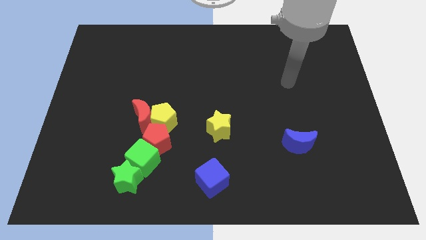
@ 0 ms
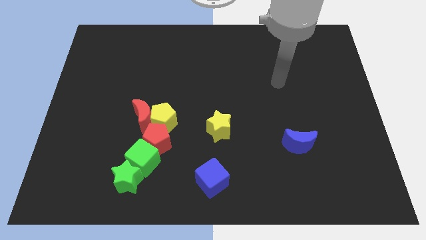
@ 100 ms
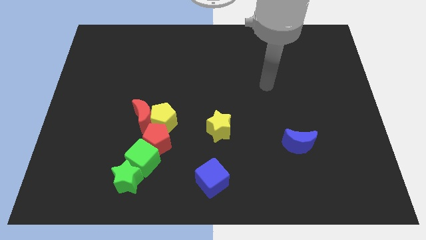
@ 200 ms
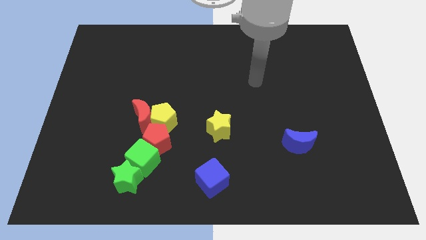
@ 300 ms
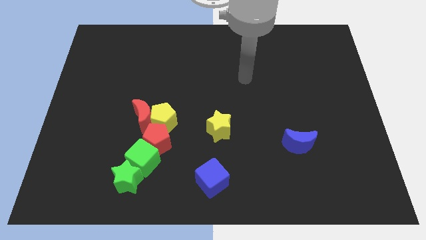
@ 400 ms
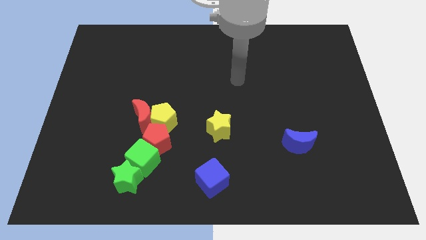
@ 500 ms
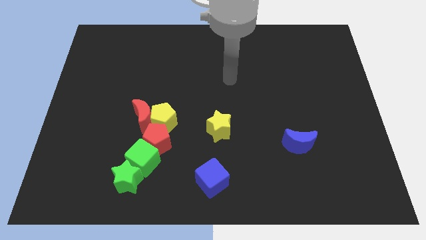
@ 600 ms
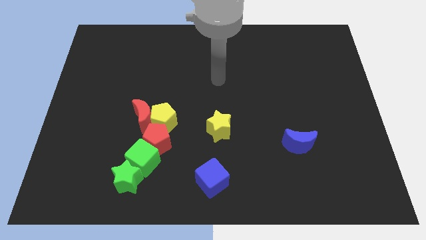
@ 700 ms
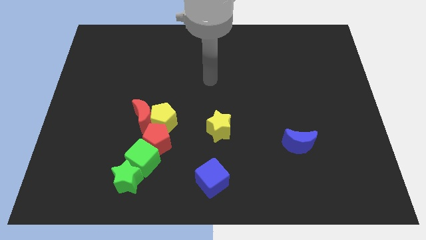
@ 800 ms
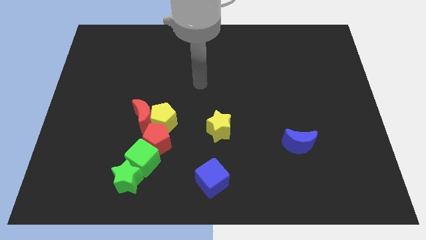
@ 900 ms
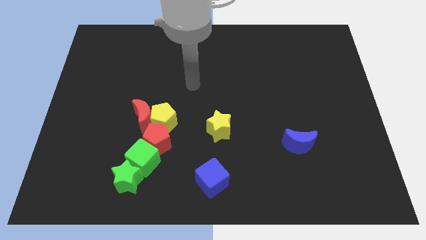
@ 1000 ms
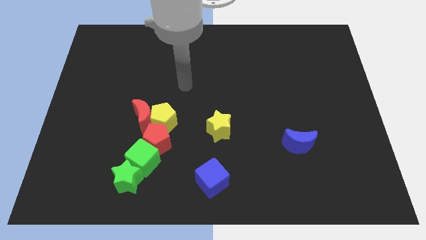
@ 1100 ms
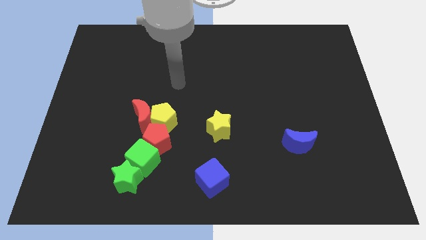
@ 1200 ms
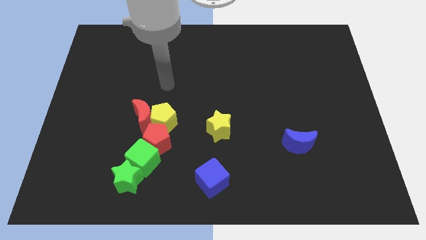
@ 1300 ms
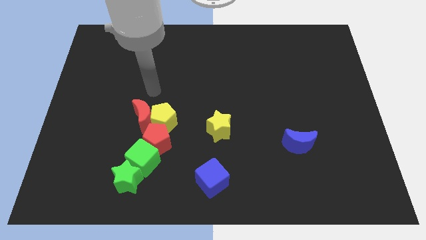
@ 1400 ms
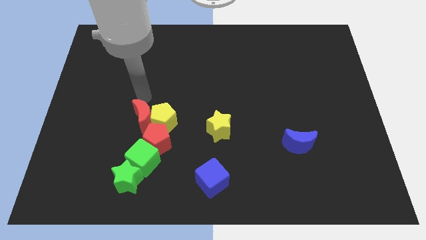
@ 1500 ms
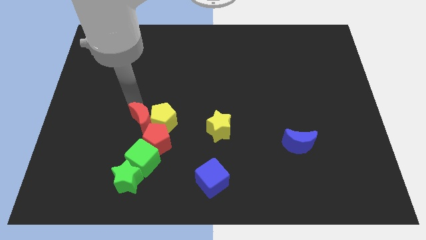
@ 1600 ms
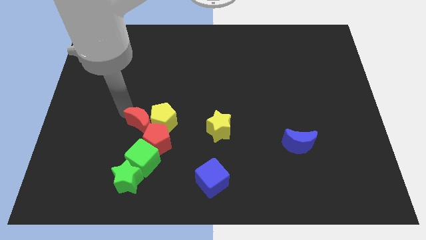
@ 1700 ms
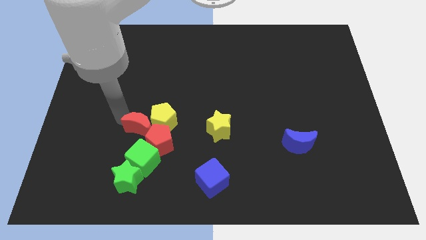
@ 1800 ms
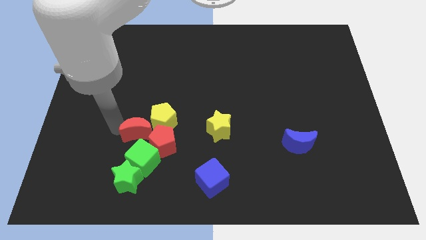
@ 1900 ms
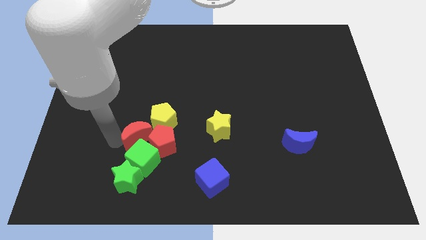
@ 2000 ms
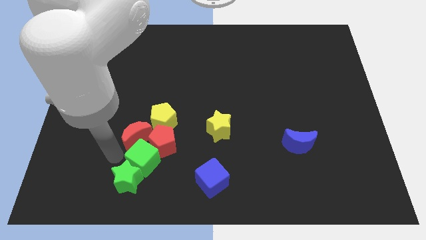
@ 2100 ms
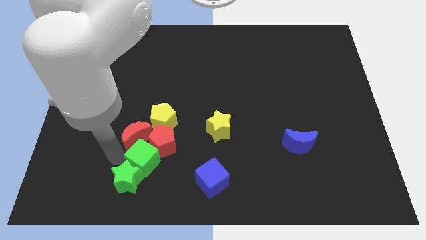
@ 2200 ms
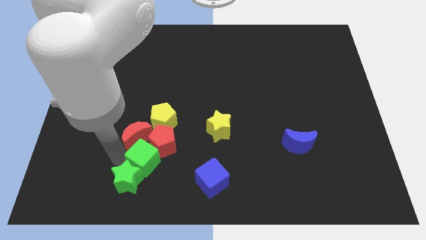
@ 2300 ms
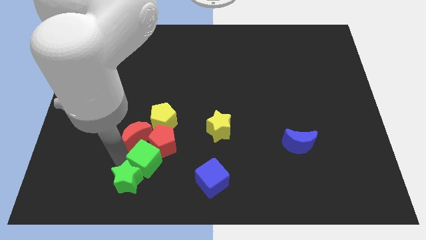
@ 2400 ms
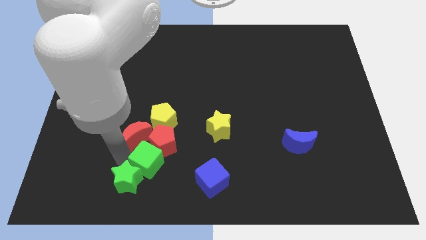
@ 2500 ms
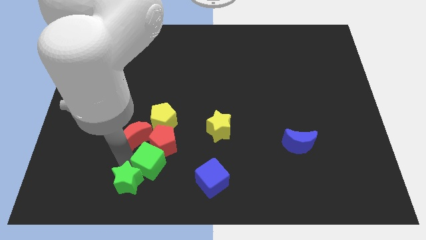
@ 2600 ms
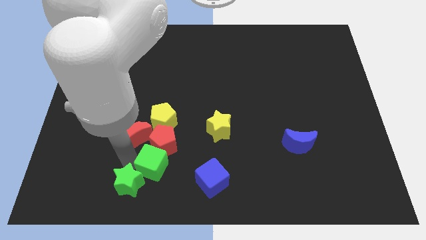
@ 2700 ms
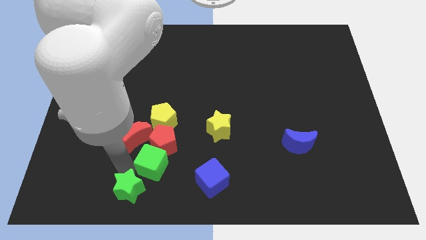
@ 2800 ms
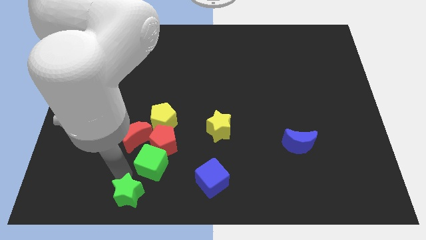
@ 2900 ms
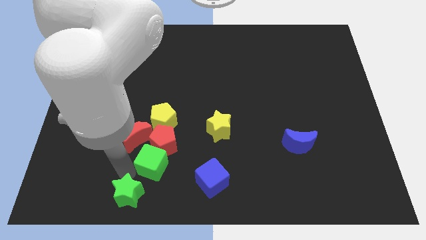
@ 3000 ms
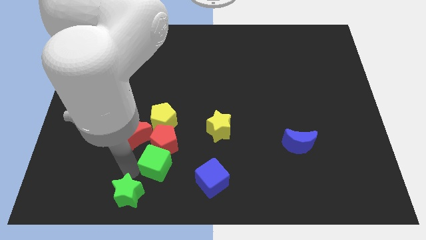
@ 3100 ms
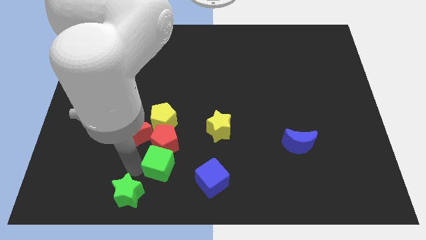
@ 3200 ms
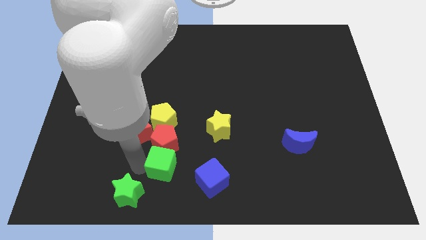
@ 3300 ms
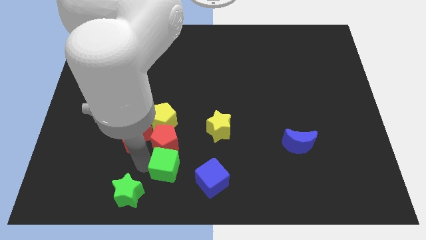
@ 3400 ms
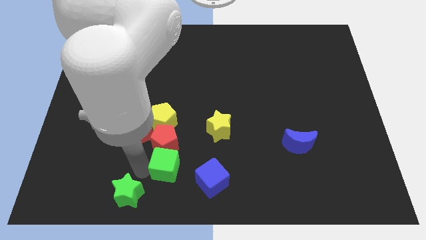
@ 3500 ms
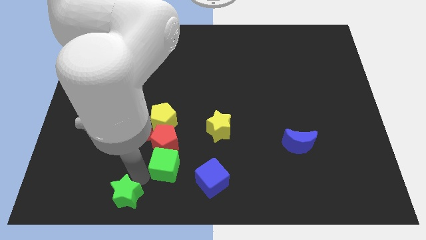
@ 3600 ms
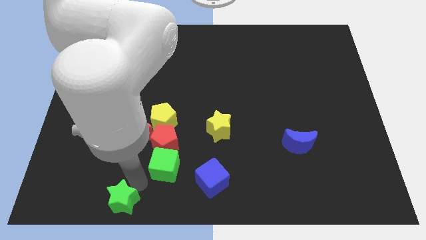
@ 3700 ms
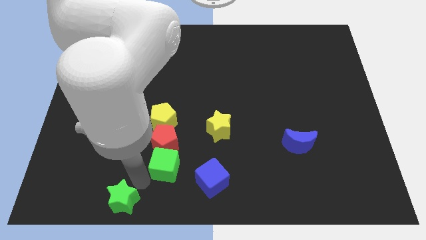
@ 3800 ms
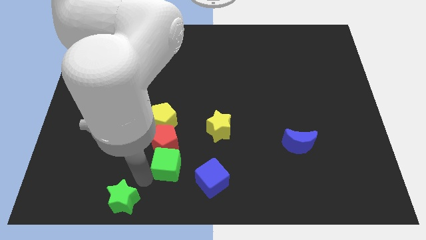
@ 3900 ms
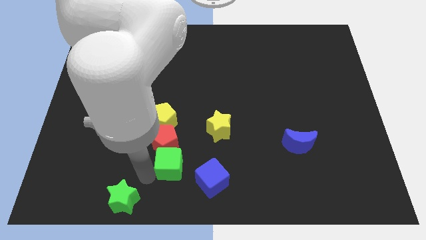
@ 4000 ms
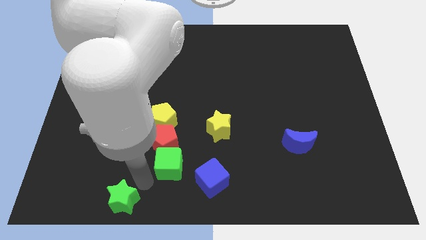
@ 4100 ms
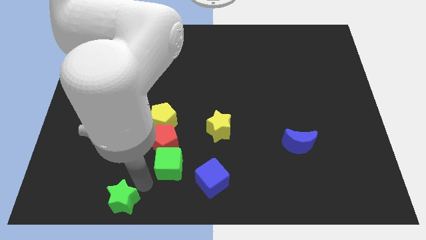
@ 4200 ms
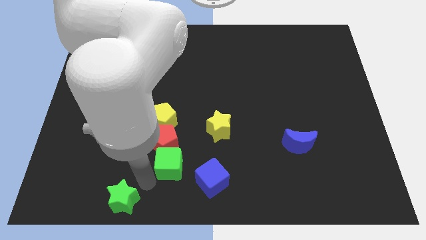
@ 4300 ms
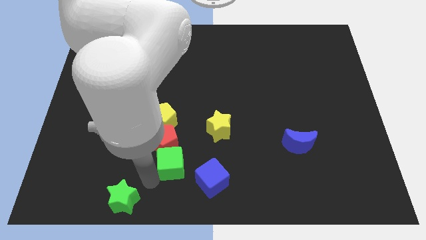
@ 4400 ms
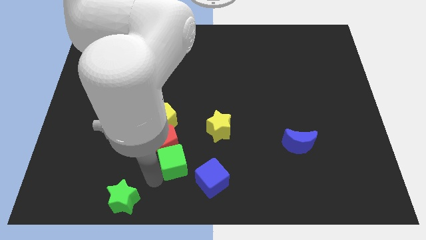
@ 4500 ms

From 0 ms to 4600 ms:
push the green cube diagonally down and to the left of the yellow star

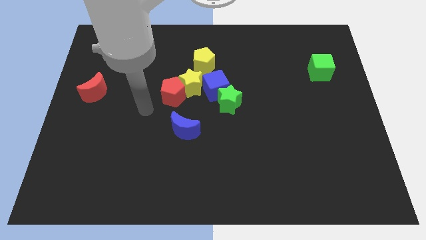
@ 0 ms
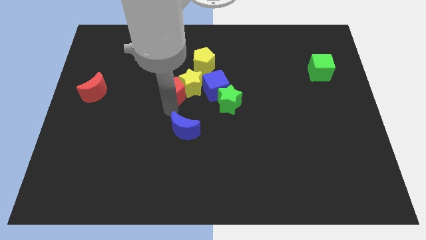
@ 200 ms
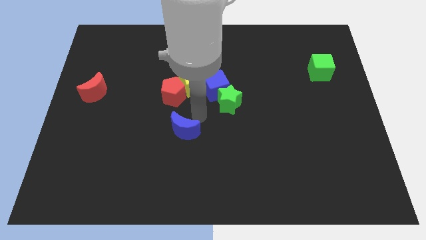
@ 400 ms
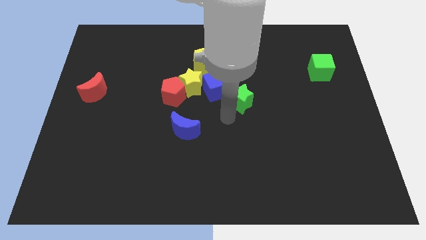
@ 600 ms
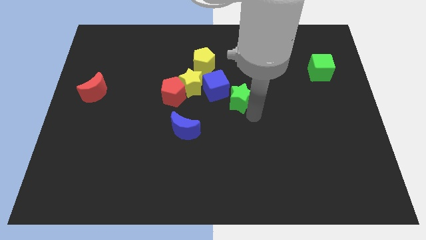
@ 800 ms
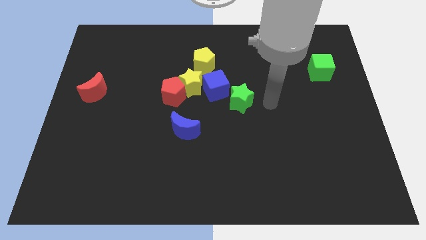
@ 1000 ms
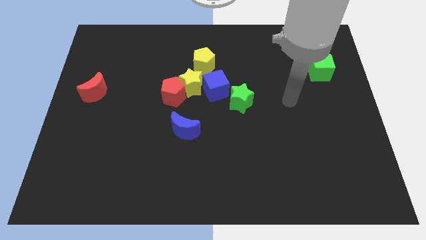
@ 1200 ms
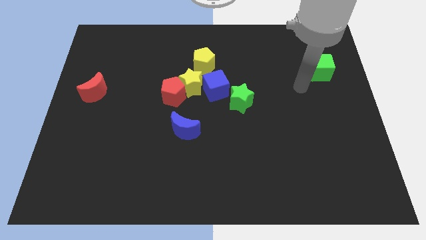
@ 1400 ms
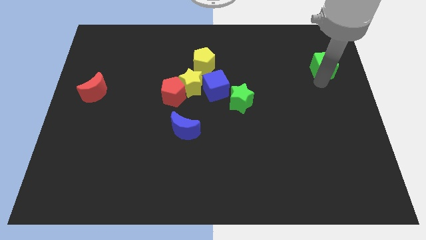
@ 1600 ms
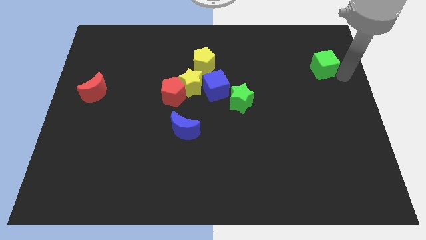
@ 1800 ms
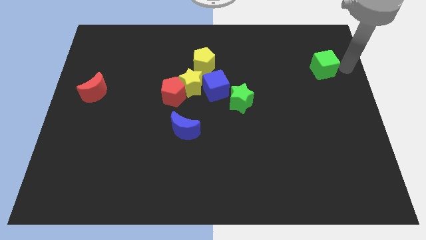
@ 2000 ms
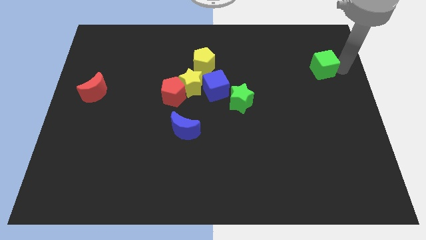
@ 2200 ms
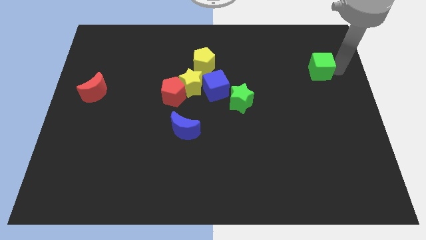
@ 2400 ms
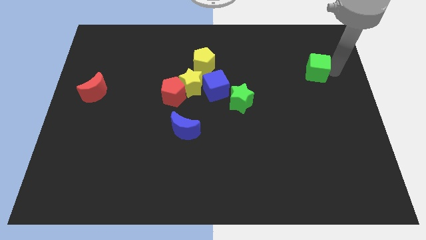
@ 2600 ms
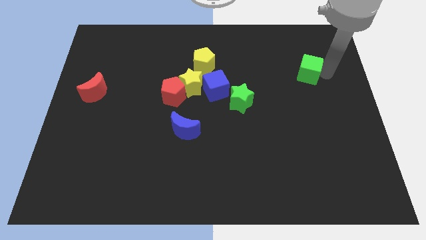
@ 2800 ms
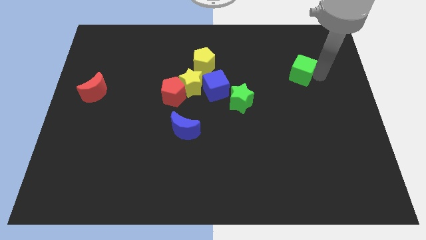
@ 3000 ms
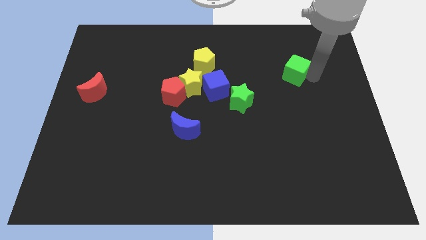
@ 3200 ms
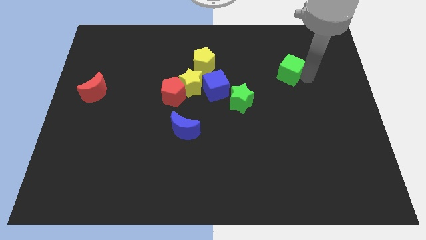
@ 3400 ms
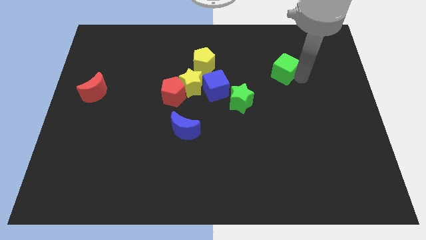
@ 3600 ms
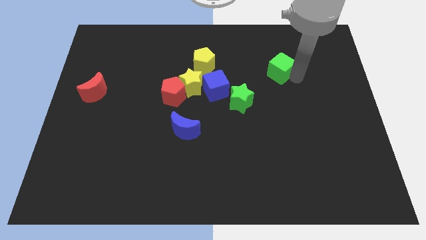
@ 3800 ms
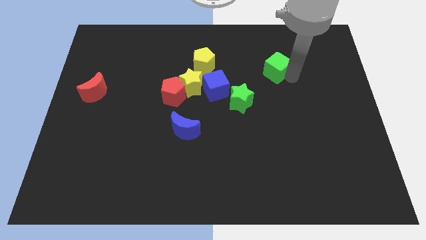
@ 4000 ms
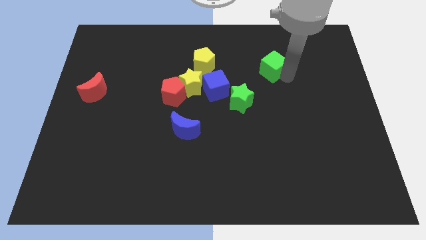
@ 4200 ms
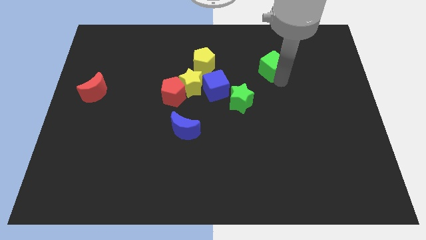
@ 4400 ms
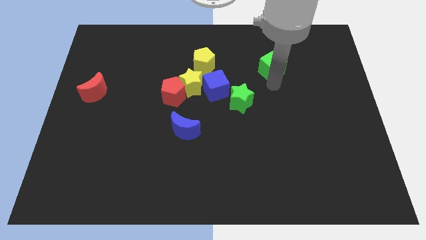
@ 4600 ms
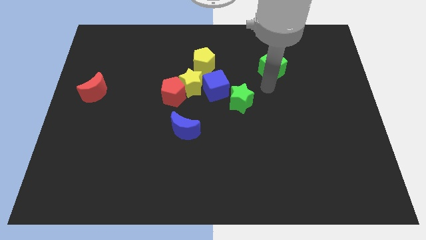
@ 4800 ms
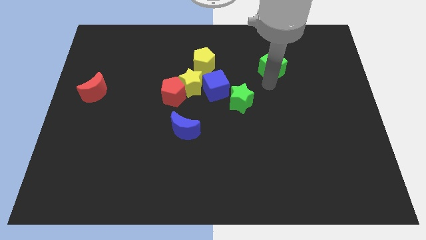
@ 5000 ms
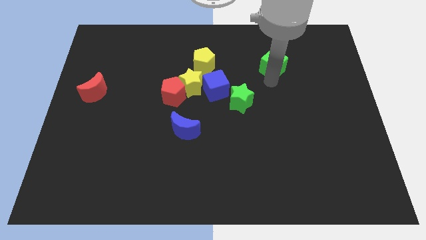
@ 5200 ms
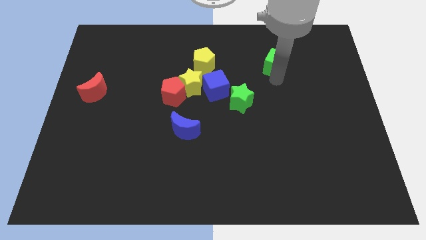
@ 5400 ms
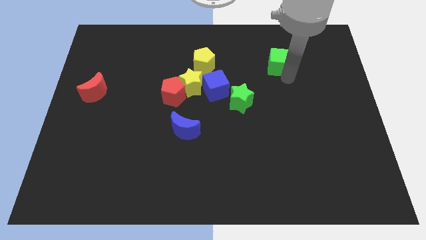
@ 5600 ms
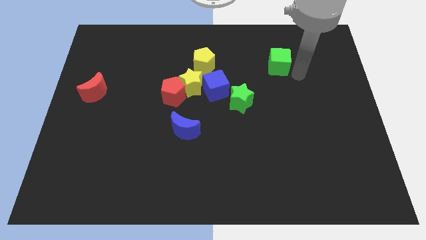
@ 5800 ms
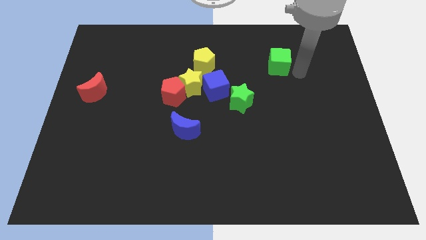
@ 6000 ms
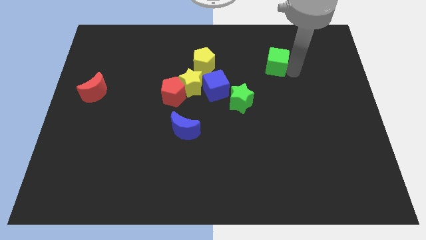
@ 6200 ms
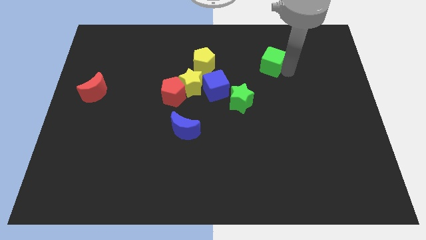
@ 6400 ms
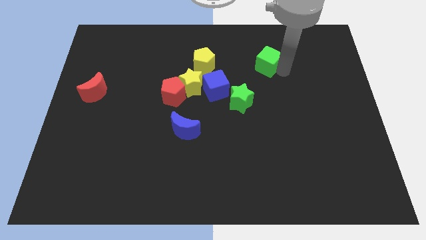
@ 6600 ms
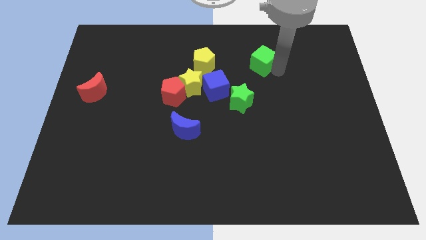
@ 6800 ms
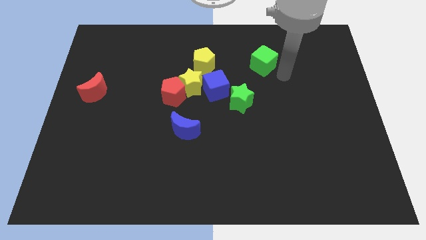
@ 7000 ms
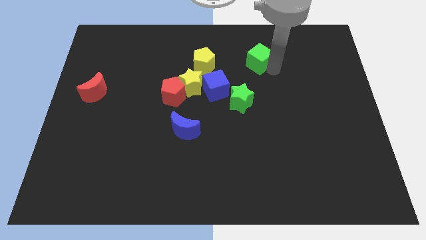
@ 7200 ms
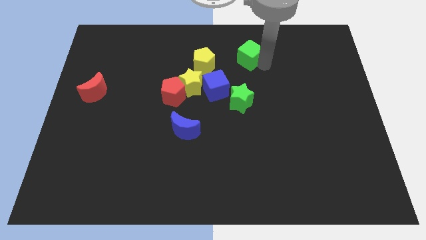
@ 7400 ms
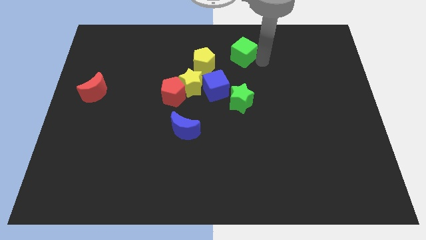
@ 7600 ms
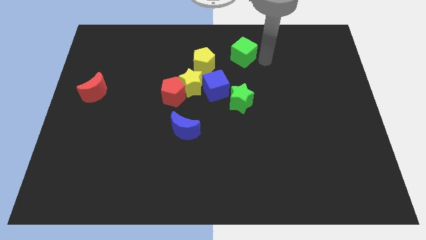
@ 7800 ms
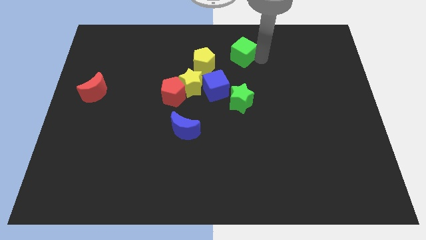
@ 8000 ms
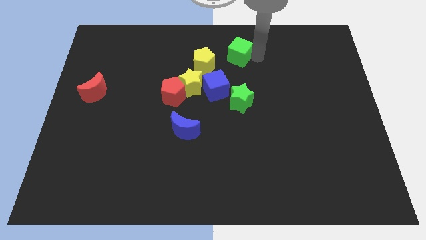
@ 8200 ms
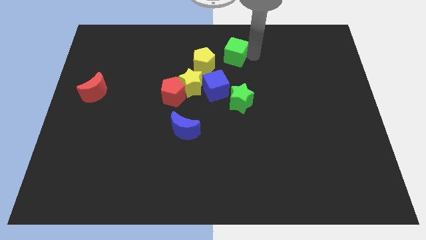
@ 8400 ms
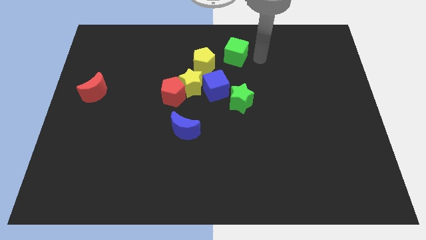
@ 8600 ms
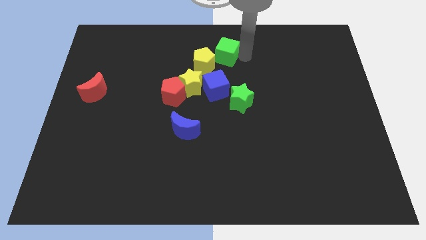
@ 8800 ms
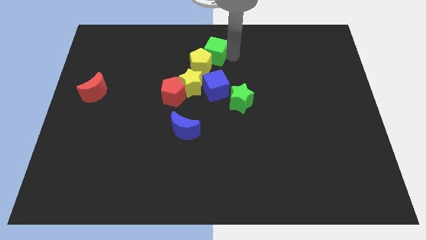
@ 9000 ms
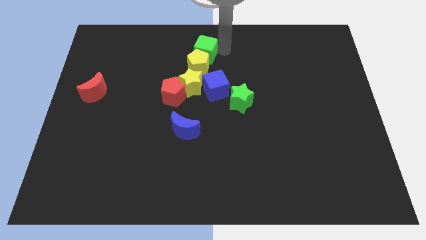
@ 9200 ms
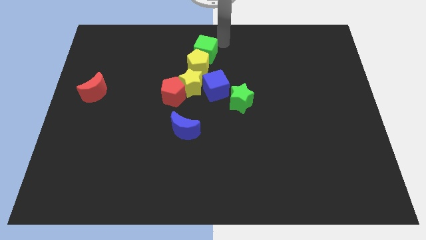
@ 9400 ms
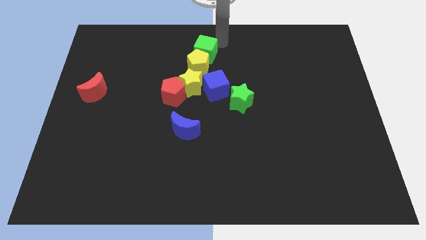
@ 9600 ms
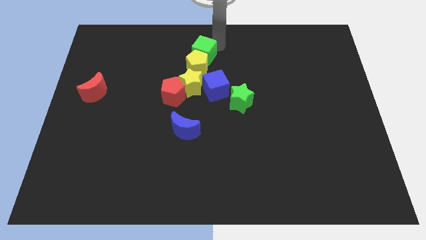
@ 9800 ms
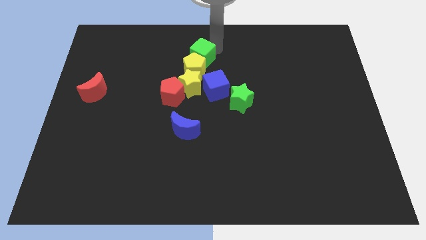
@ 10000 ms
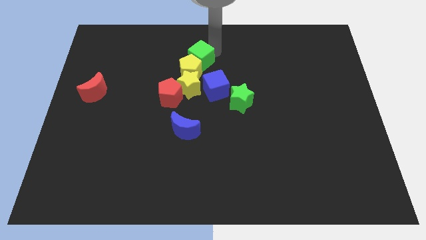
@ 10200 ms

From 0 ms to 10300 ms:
slide the green cube to the top left of the blue cube
